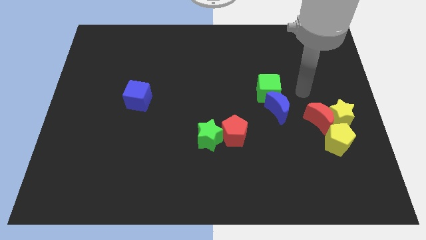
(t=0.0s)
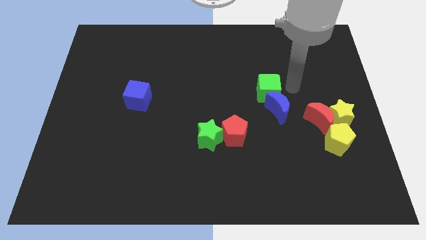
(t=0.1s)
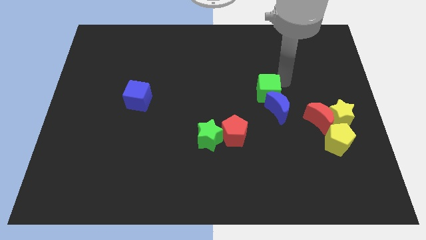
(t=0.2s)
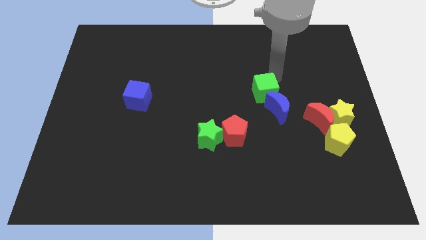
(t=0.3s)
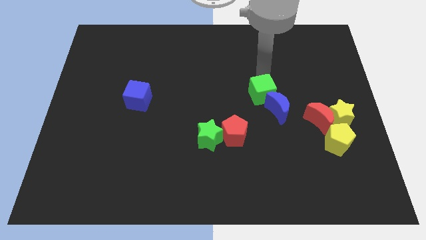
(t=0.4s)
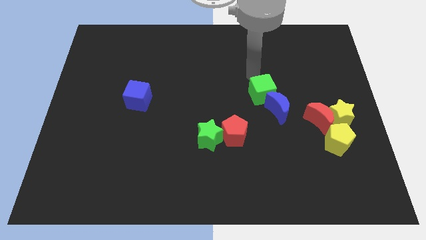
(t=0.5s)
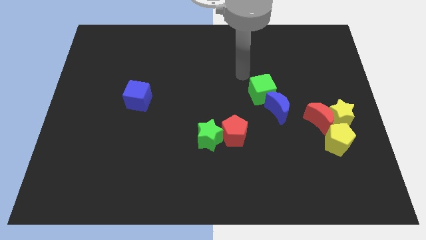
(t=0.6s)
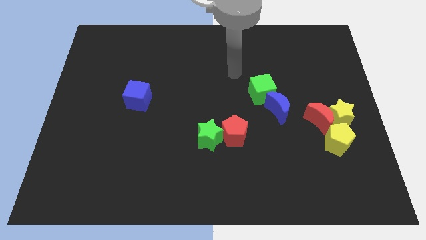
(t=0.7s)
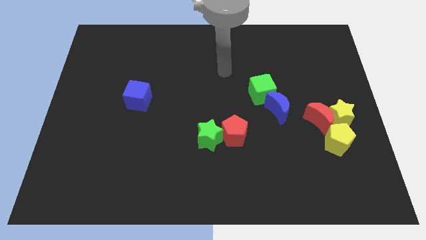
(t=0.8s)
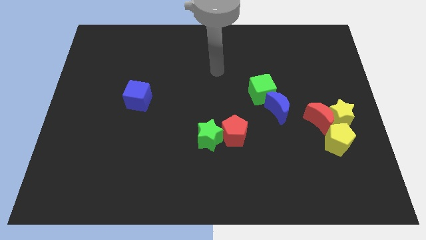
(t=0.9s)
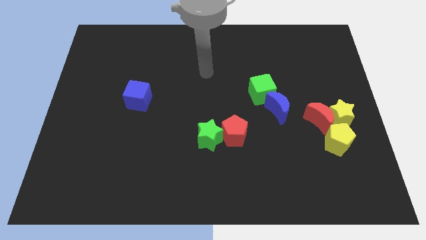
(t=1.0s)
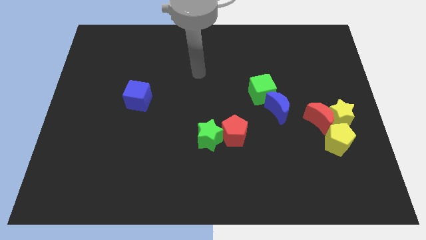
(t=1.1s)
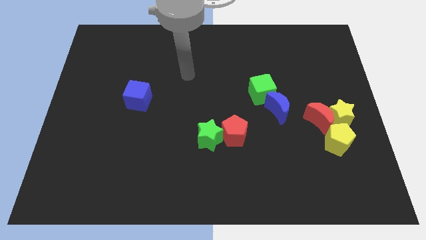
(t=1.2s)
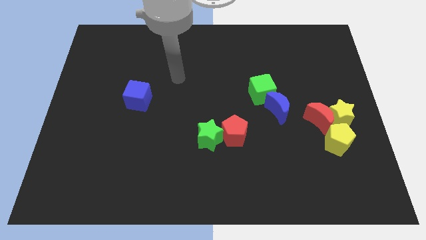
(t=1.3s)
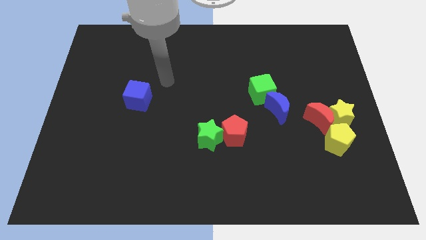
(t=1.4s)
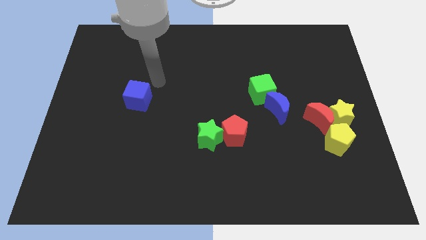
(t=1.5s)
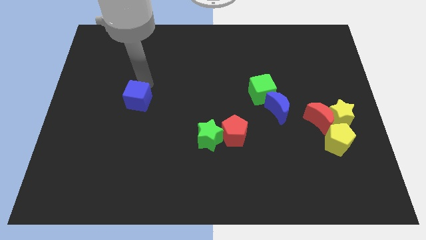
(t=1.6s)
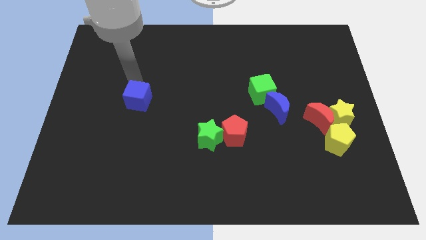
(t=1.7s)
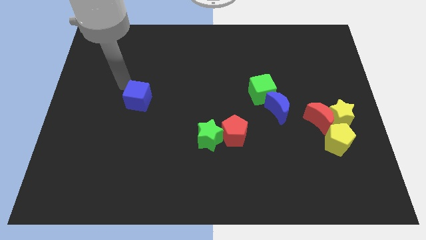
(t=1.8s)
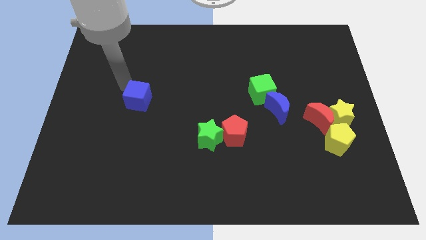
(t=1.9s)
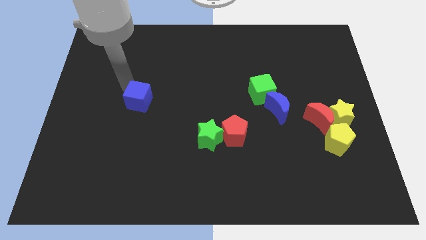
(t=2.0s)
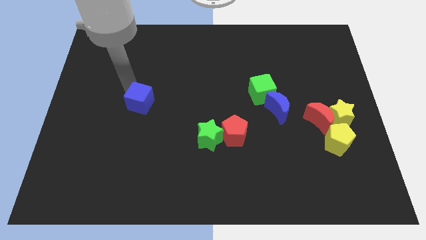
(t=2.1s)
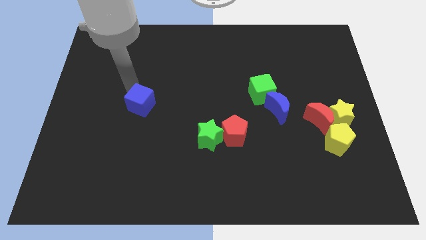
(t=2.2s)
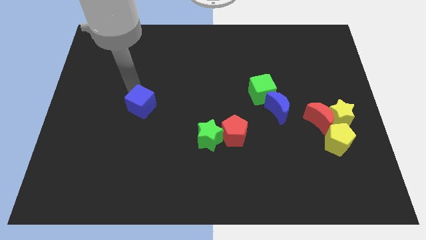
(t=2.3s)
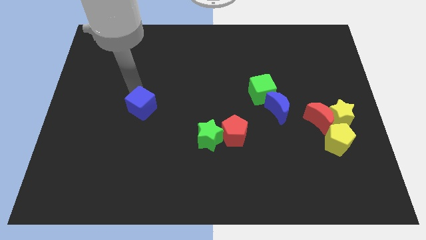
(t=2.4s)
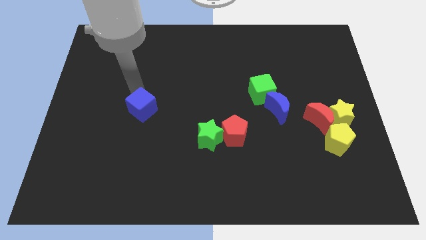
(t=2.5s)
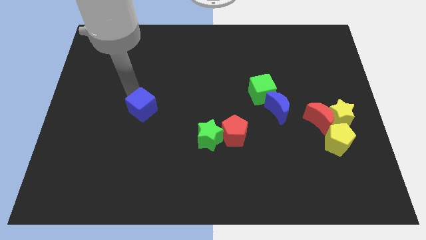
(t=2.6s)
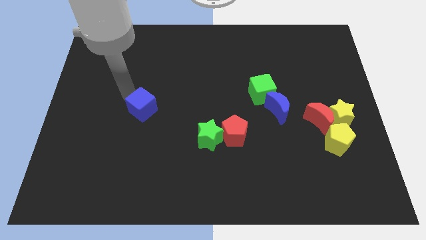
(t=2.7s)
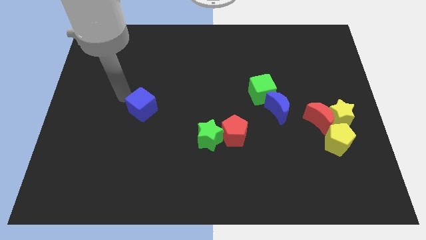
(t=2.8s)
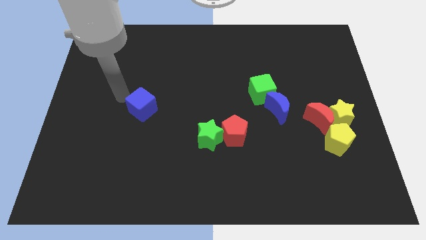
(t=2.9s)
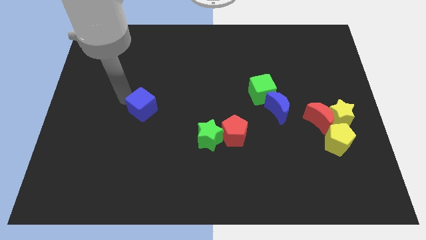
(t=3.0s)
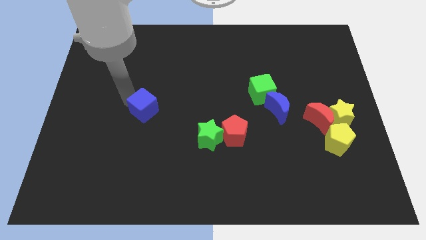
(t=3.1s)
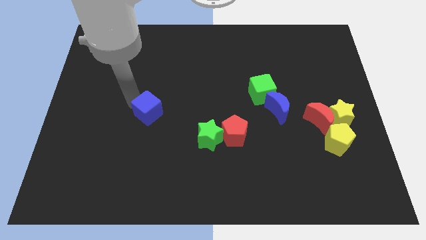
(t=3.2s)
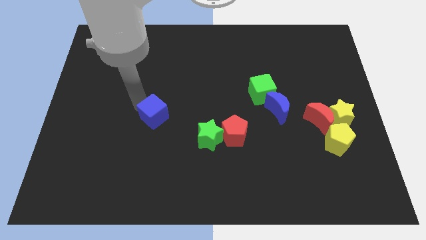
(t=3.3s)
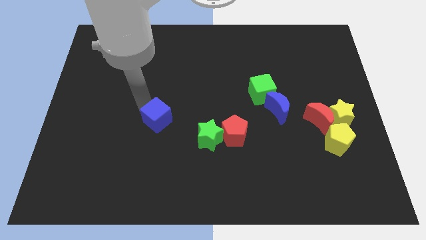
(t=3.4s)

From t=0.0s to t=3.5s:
slightly move the blue cube downwards and right

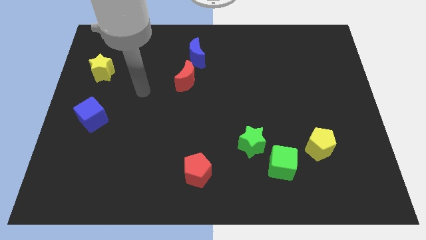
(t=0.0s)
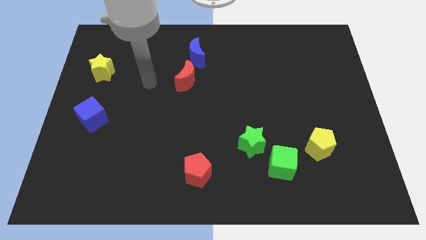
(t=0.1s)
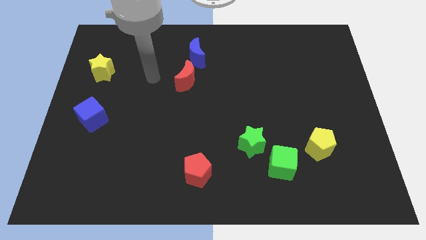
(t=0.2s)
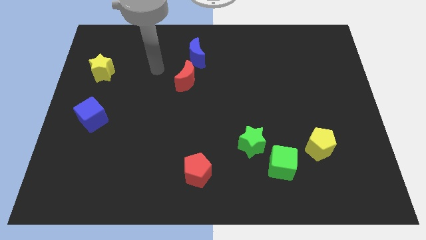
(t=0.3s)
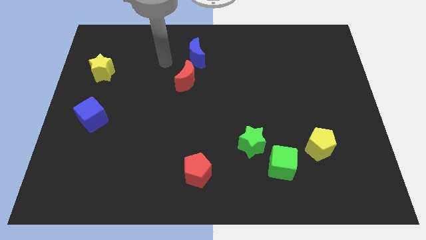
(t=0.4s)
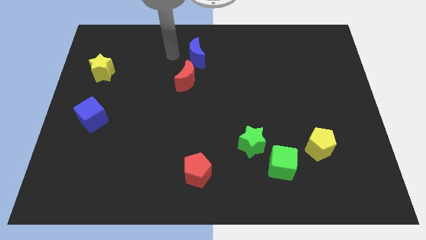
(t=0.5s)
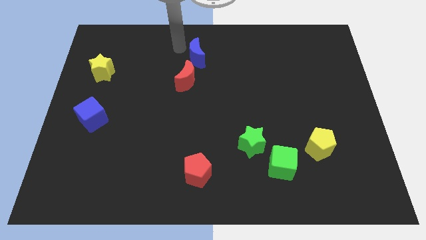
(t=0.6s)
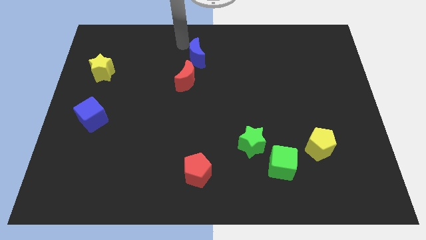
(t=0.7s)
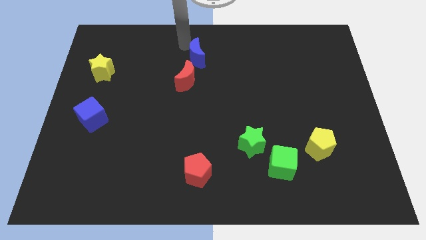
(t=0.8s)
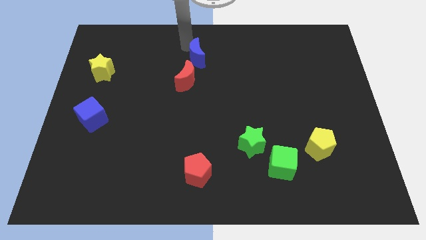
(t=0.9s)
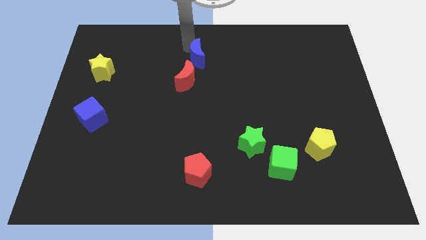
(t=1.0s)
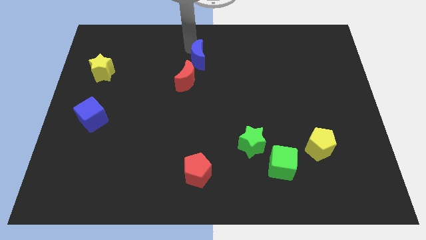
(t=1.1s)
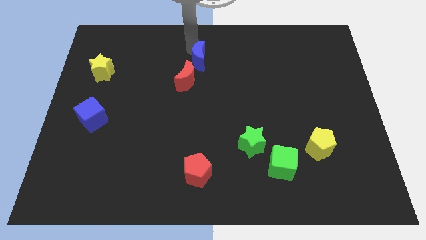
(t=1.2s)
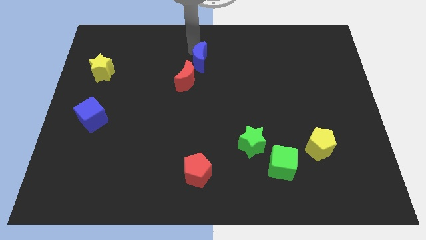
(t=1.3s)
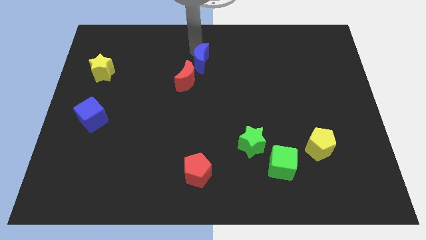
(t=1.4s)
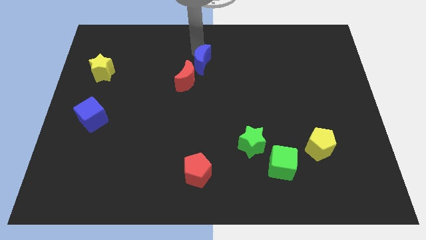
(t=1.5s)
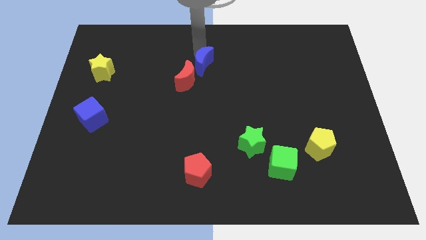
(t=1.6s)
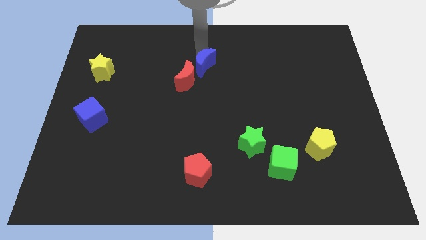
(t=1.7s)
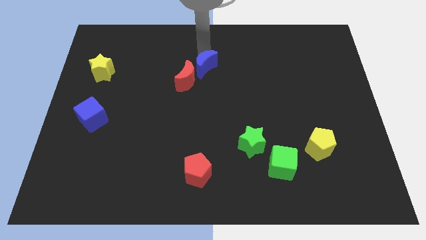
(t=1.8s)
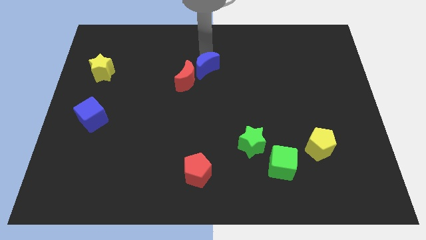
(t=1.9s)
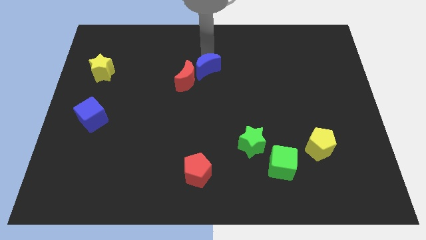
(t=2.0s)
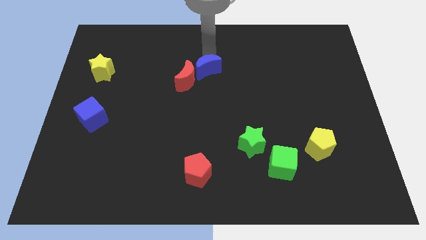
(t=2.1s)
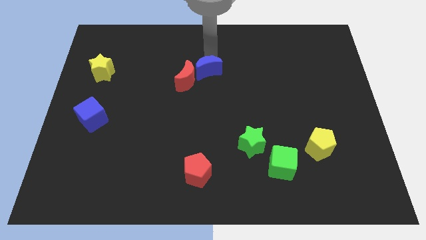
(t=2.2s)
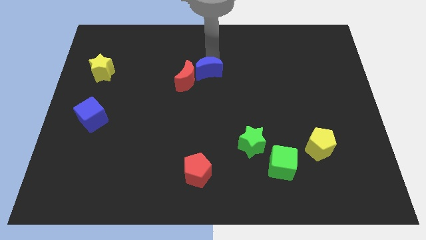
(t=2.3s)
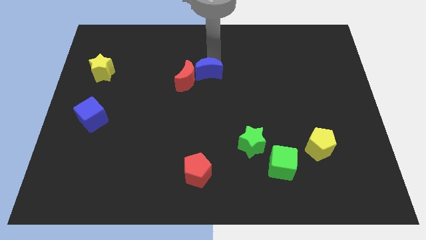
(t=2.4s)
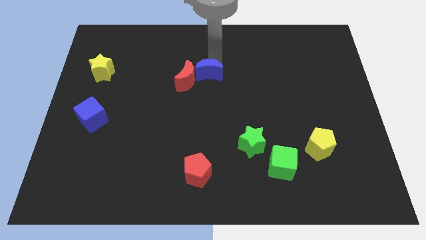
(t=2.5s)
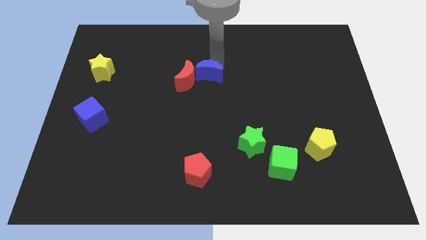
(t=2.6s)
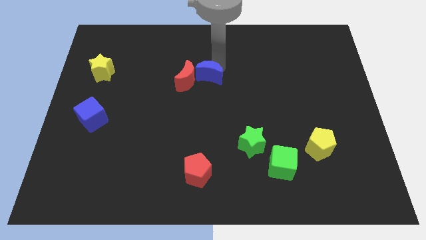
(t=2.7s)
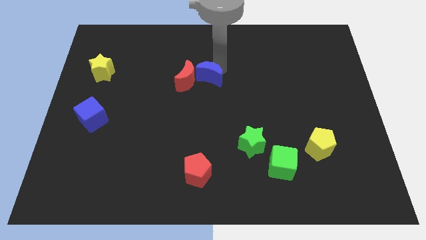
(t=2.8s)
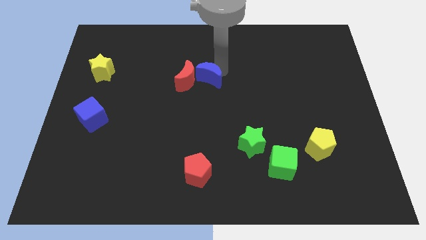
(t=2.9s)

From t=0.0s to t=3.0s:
slightly slide the blue moon down

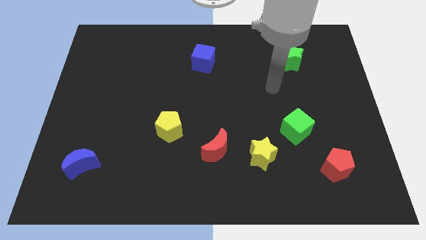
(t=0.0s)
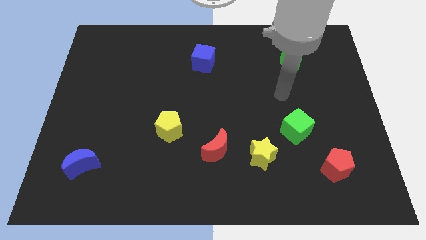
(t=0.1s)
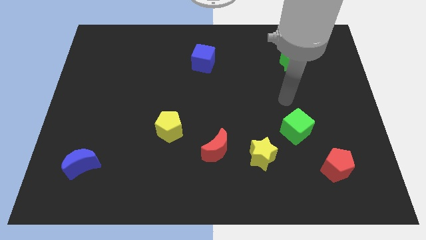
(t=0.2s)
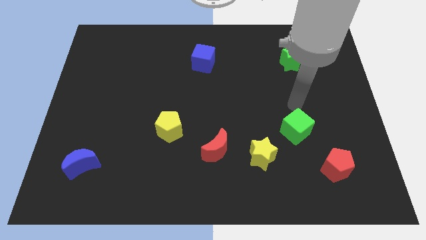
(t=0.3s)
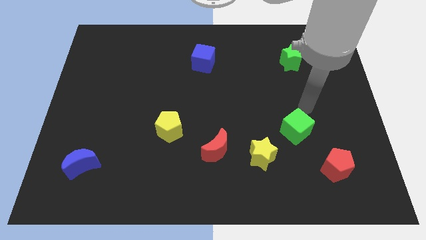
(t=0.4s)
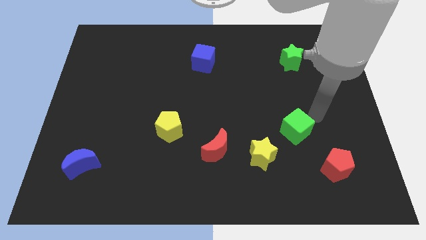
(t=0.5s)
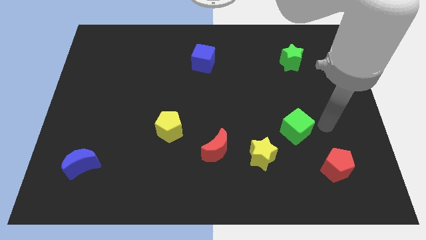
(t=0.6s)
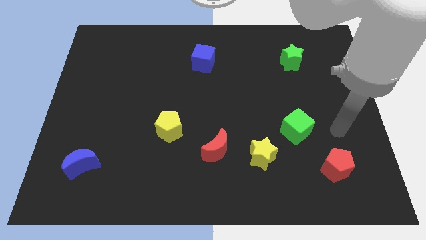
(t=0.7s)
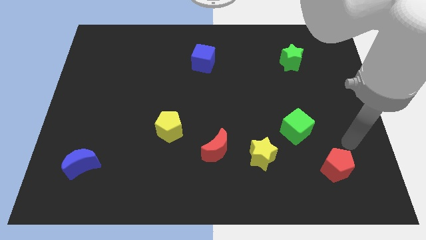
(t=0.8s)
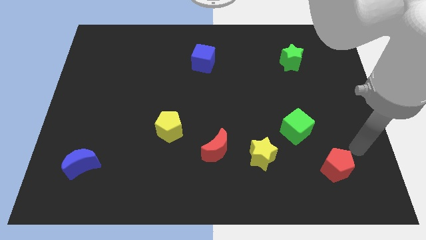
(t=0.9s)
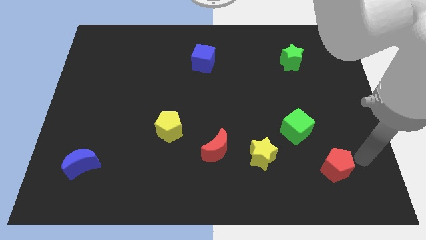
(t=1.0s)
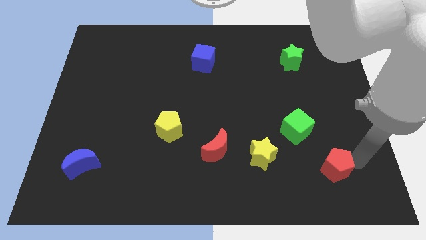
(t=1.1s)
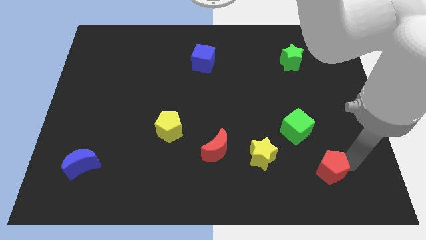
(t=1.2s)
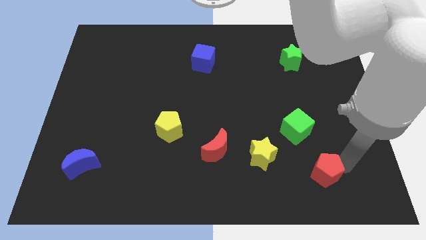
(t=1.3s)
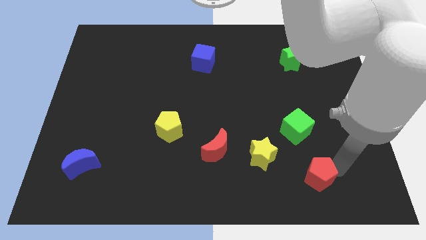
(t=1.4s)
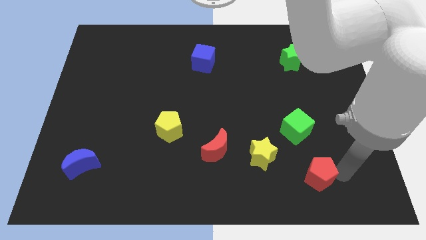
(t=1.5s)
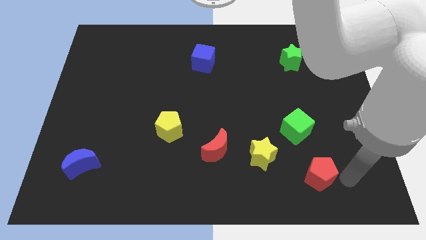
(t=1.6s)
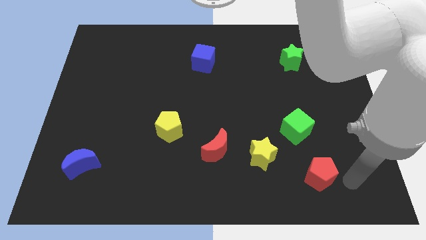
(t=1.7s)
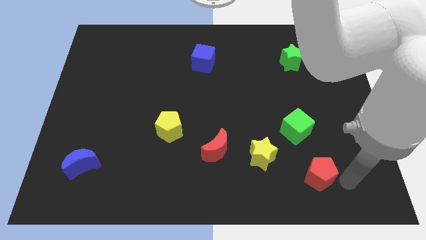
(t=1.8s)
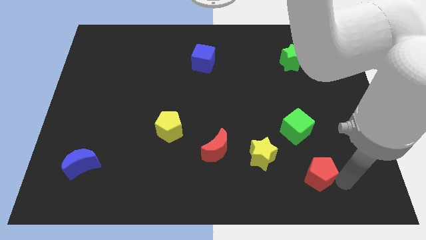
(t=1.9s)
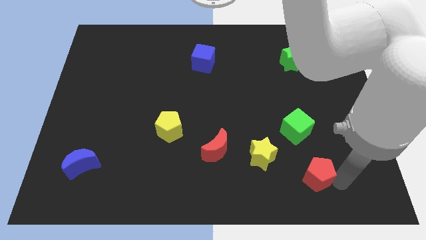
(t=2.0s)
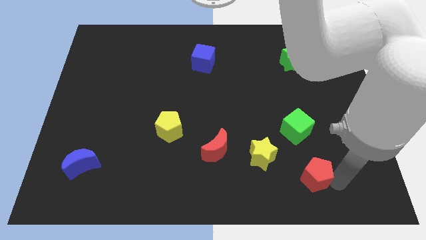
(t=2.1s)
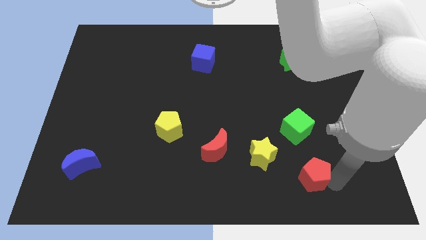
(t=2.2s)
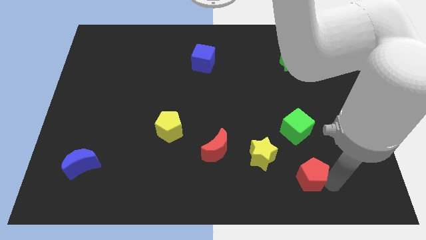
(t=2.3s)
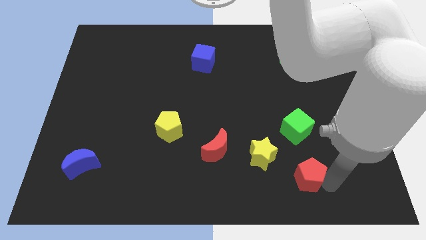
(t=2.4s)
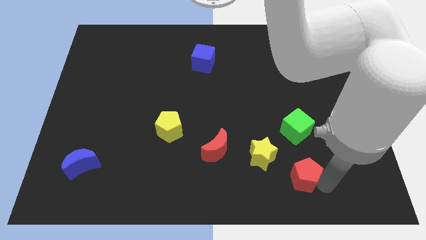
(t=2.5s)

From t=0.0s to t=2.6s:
move the red pentagon a little left
